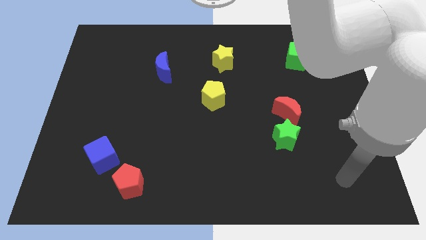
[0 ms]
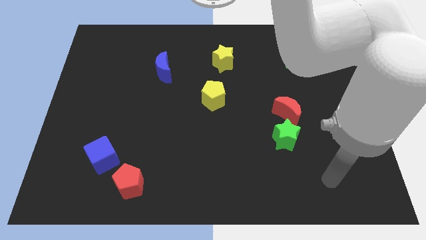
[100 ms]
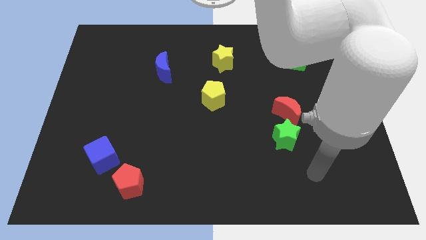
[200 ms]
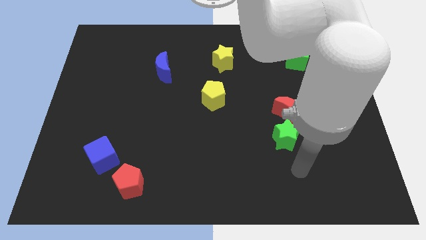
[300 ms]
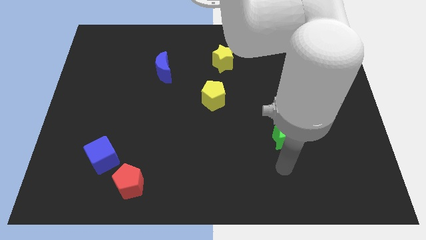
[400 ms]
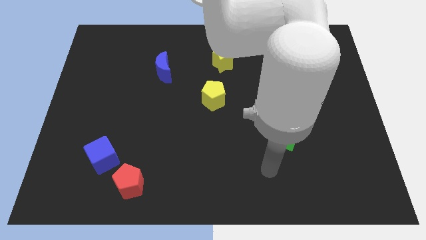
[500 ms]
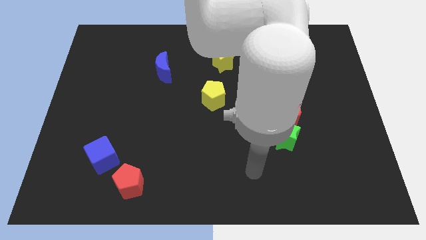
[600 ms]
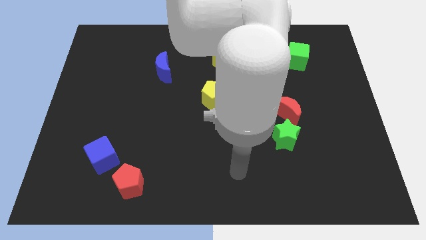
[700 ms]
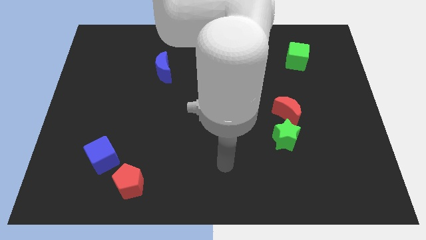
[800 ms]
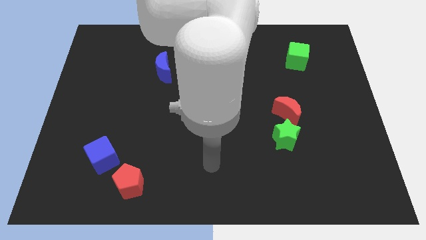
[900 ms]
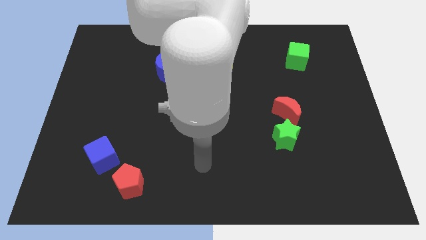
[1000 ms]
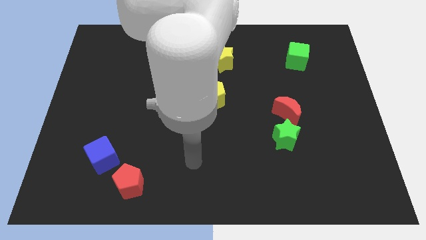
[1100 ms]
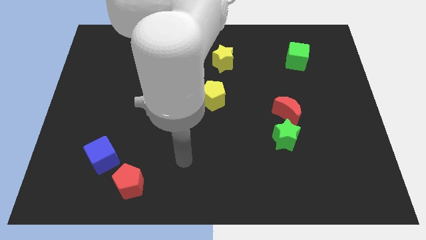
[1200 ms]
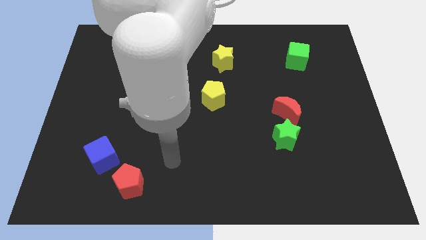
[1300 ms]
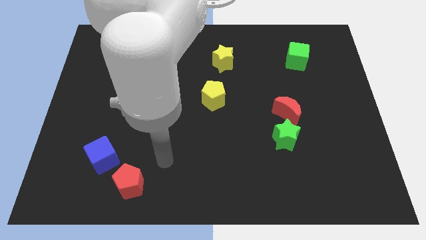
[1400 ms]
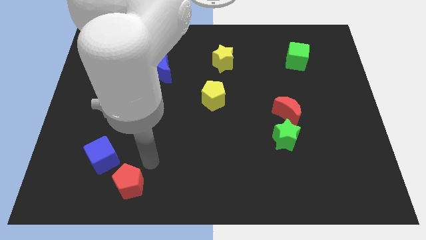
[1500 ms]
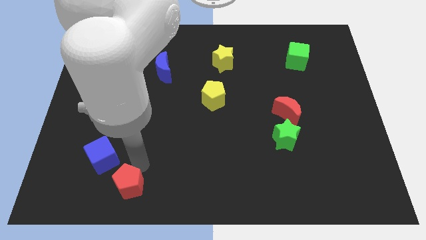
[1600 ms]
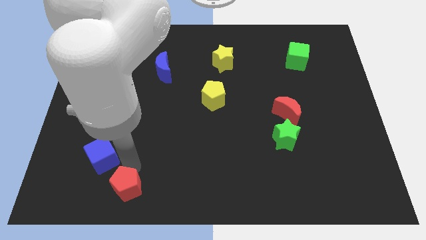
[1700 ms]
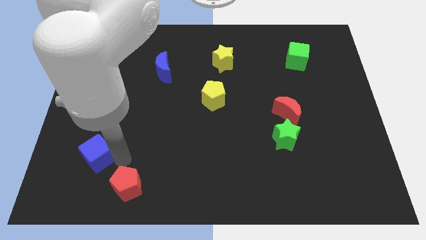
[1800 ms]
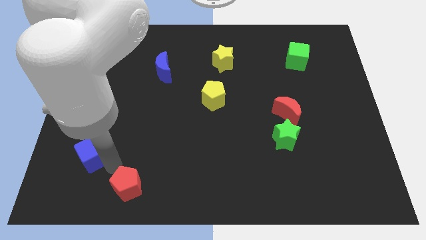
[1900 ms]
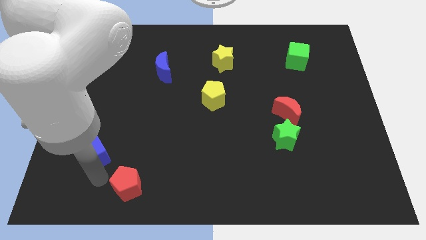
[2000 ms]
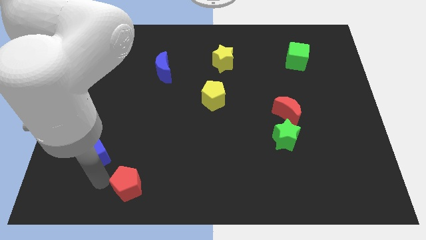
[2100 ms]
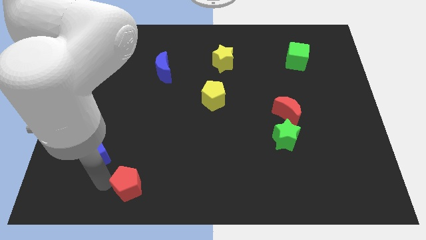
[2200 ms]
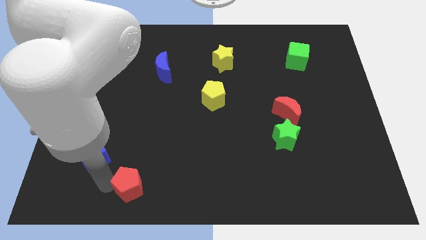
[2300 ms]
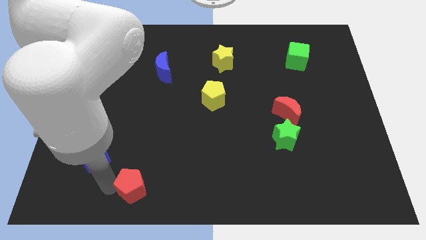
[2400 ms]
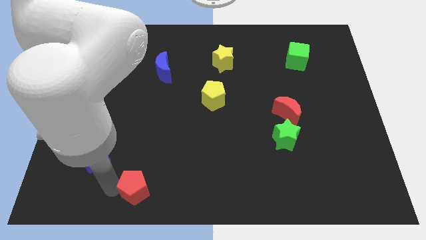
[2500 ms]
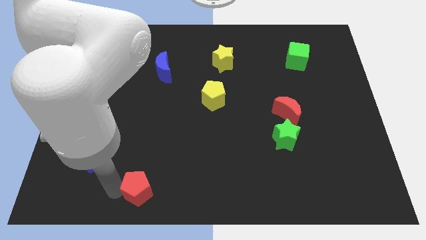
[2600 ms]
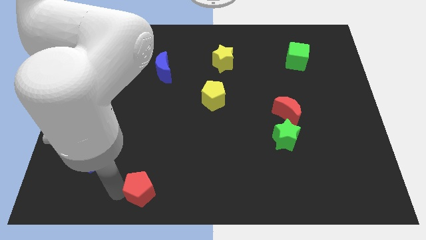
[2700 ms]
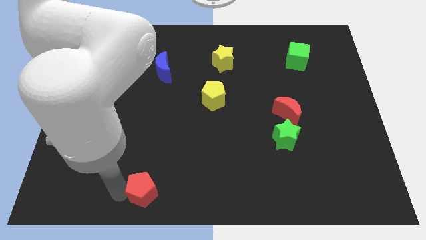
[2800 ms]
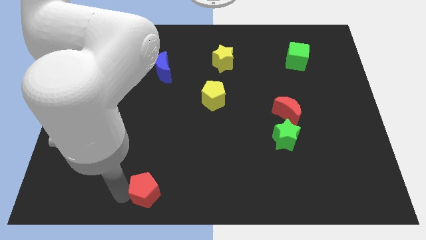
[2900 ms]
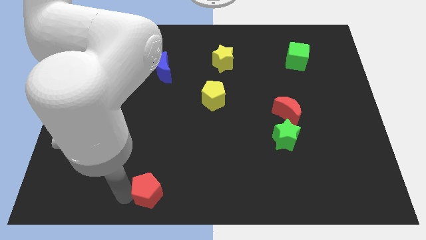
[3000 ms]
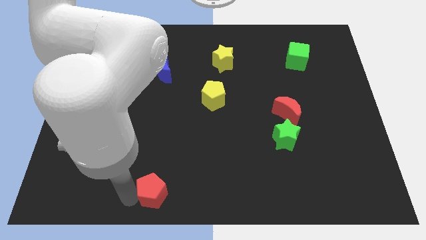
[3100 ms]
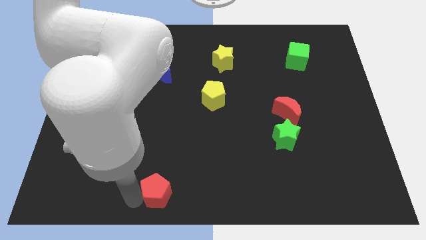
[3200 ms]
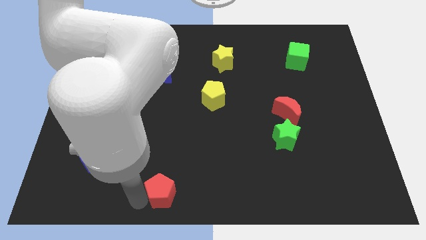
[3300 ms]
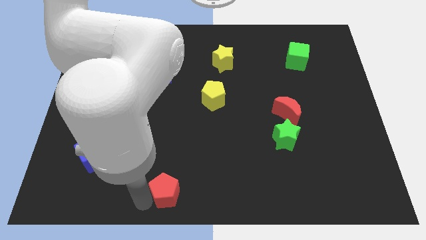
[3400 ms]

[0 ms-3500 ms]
move the red pentagon right a little bit

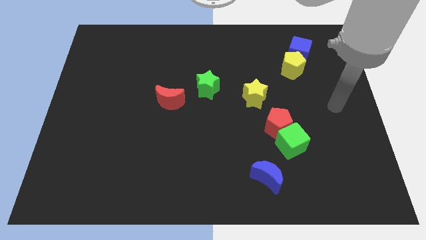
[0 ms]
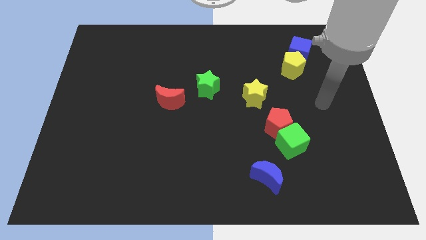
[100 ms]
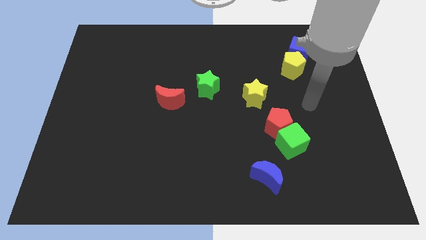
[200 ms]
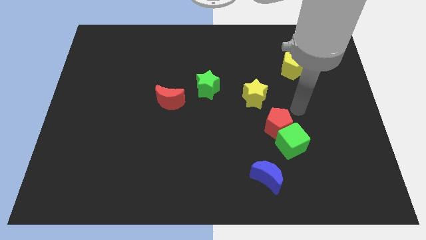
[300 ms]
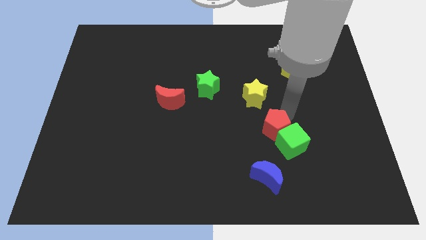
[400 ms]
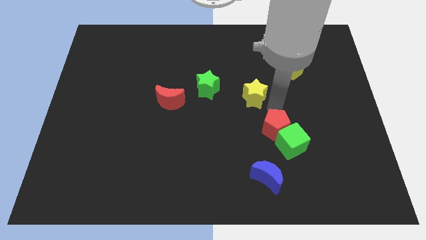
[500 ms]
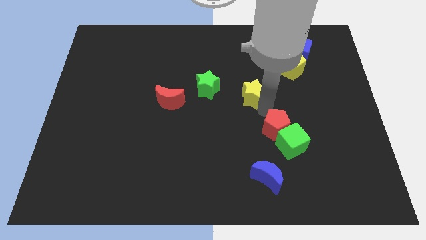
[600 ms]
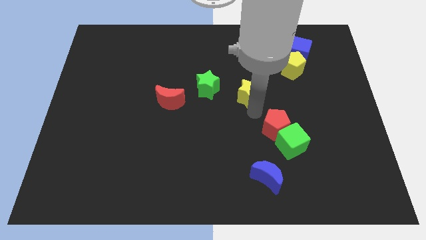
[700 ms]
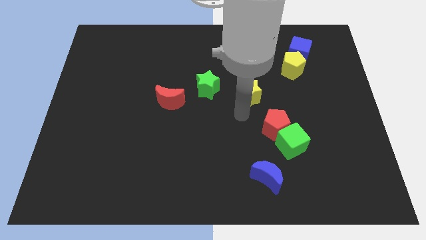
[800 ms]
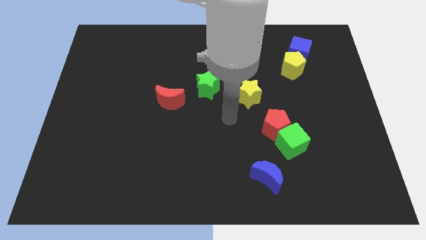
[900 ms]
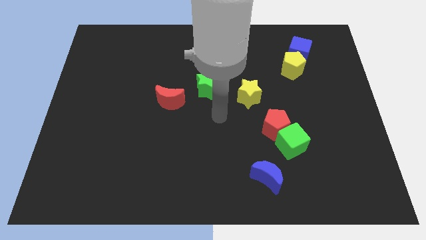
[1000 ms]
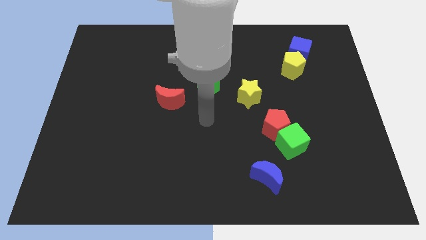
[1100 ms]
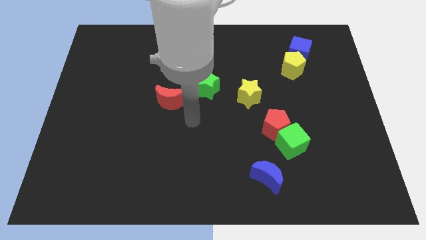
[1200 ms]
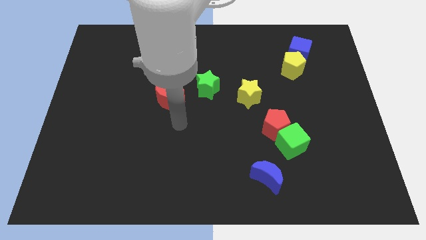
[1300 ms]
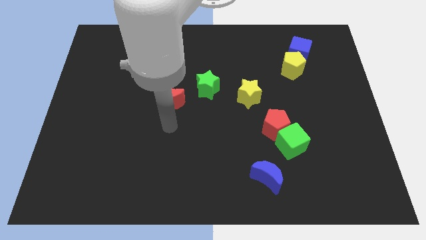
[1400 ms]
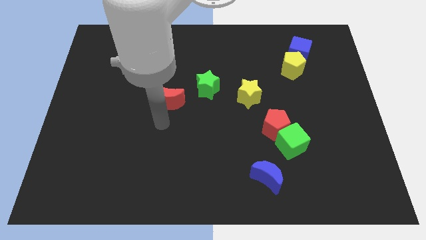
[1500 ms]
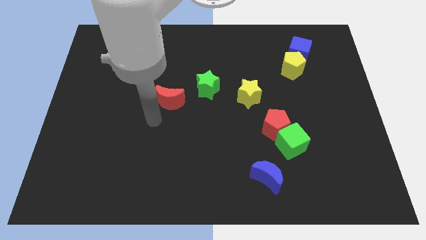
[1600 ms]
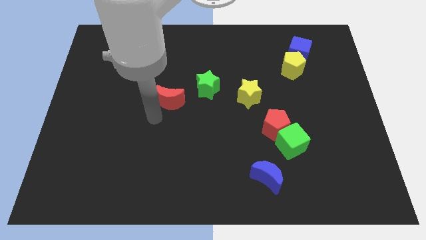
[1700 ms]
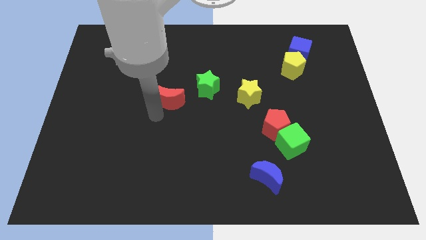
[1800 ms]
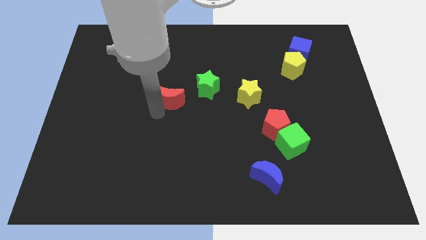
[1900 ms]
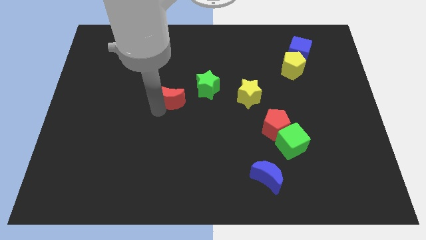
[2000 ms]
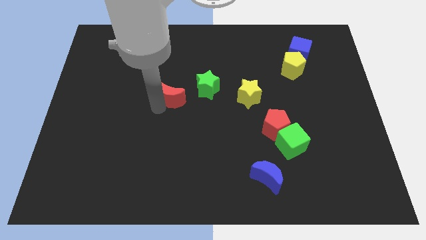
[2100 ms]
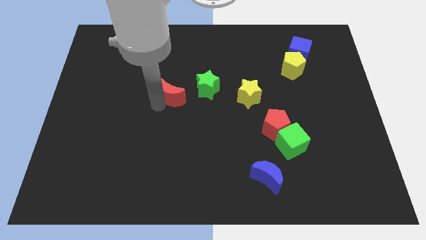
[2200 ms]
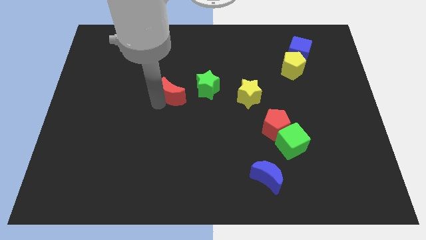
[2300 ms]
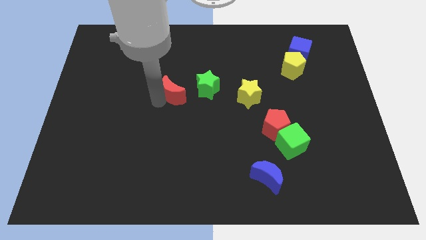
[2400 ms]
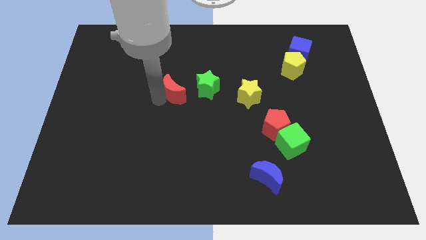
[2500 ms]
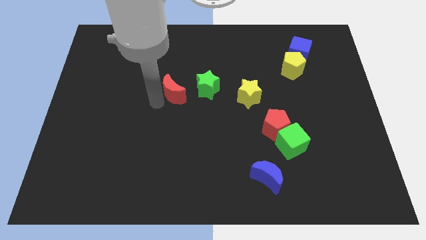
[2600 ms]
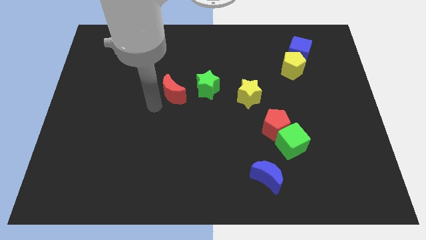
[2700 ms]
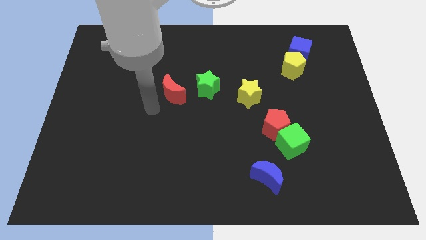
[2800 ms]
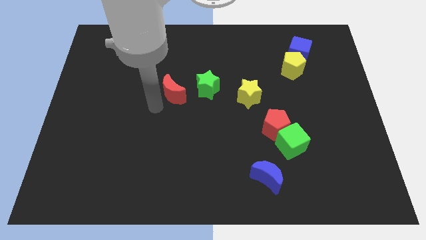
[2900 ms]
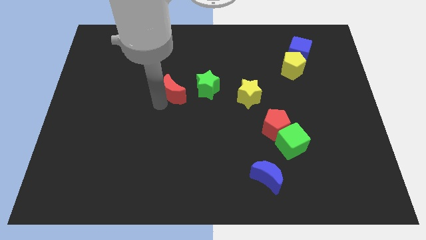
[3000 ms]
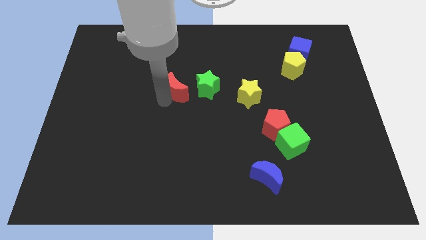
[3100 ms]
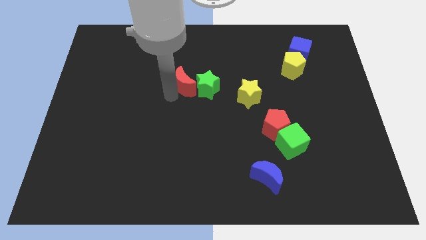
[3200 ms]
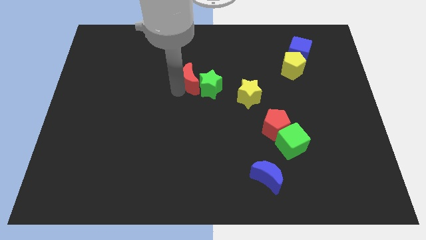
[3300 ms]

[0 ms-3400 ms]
push the red moon upwards and then to the right a little bit

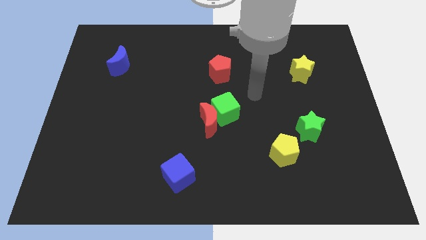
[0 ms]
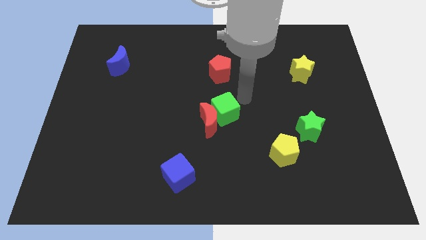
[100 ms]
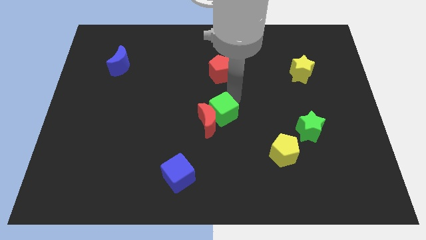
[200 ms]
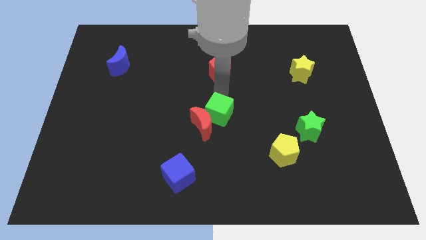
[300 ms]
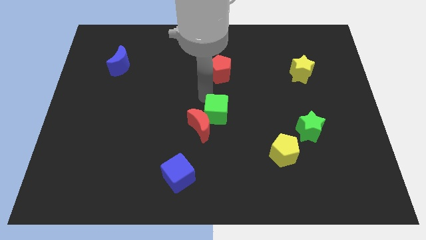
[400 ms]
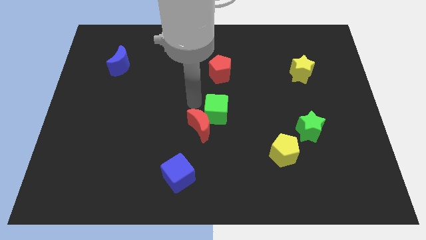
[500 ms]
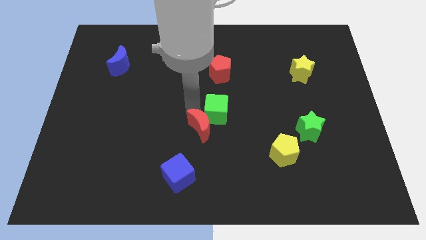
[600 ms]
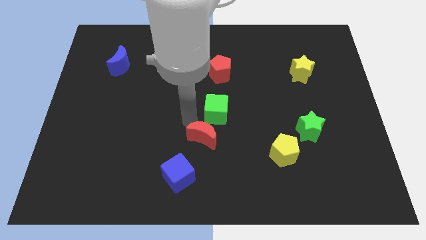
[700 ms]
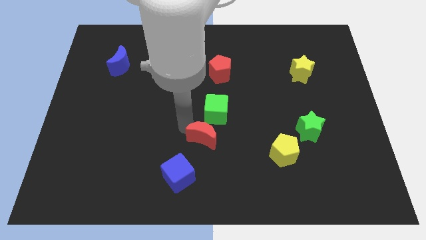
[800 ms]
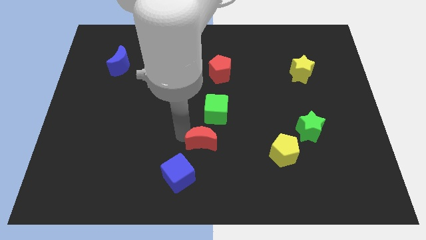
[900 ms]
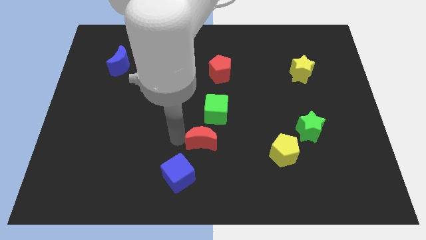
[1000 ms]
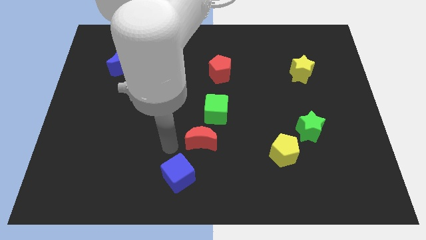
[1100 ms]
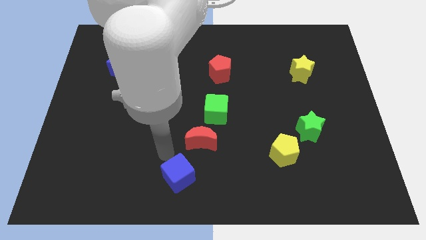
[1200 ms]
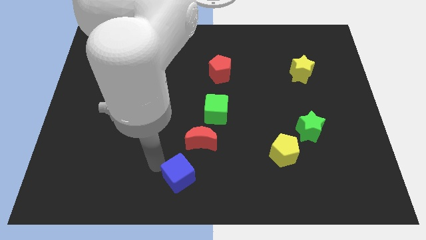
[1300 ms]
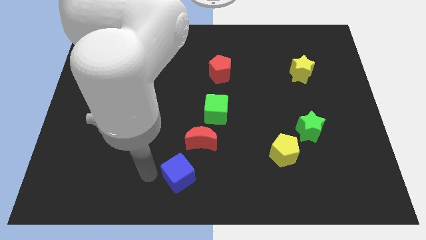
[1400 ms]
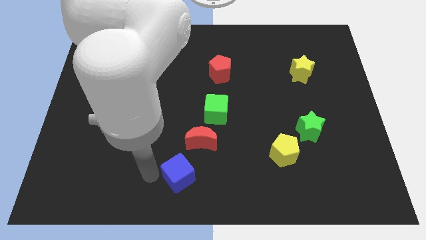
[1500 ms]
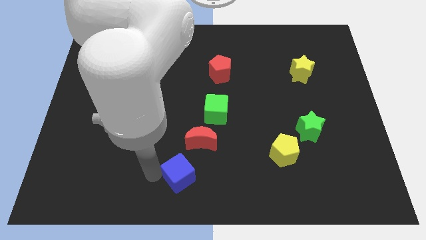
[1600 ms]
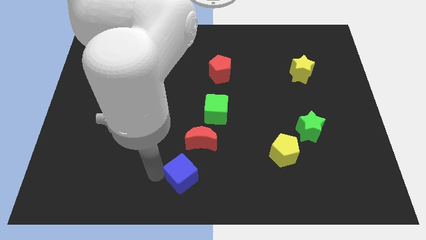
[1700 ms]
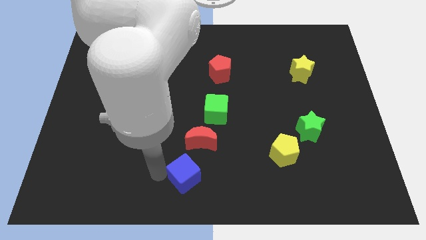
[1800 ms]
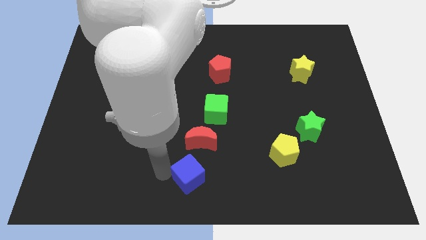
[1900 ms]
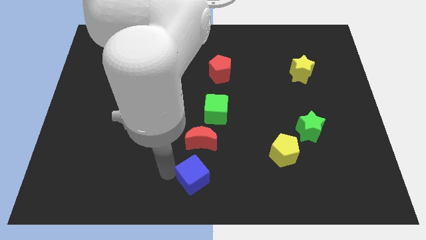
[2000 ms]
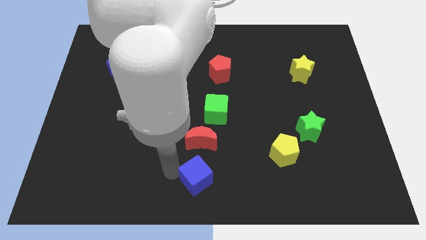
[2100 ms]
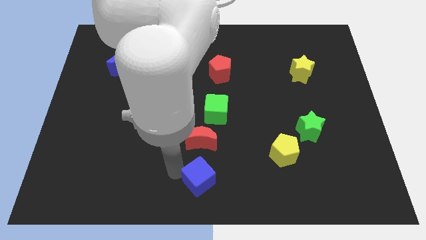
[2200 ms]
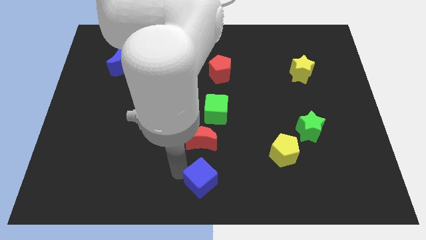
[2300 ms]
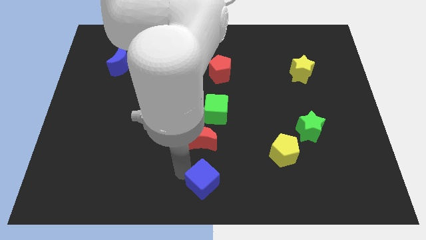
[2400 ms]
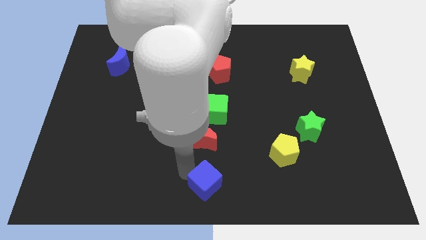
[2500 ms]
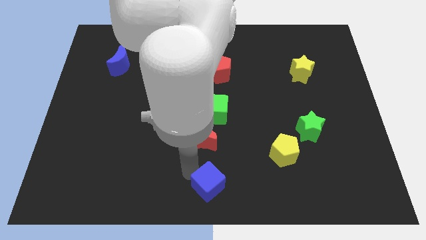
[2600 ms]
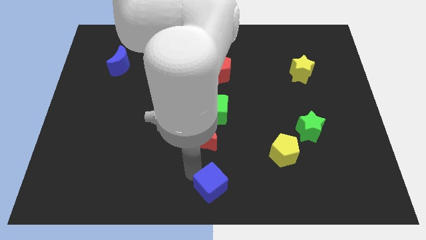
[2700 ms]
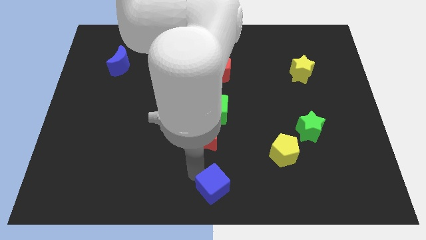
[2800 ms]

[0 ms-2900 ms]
slide the blue cube slightly right
